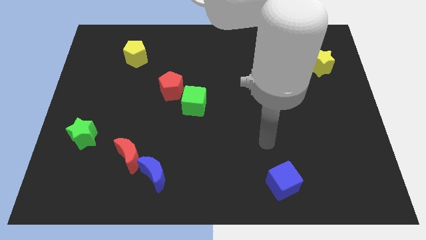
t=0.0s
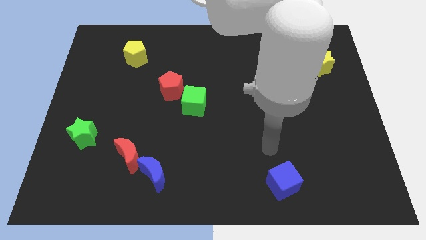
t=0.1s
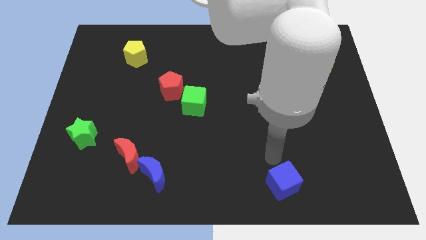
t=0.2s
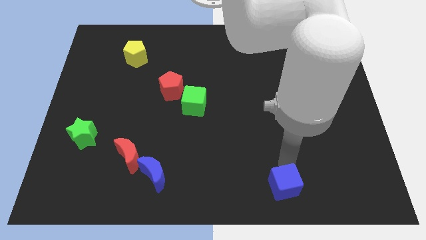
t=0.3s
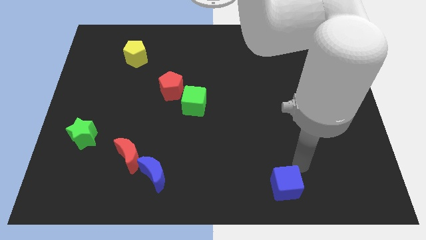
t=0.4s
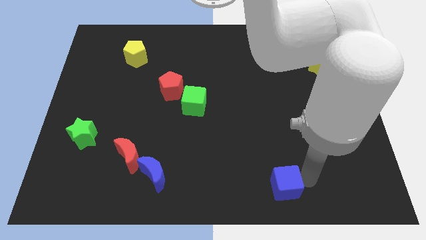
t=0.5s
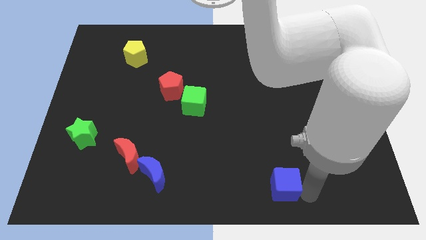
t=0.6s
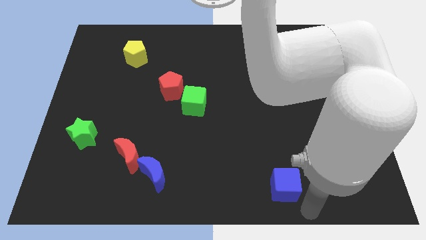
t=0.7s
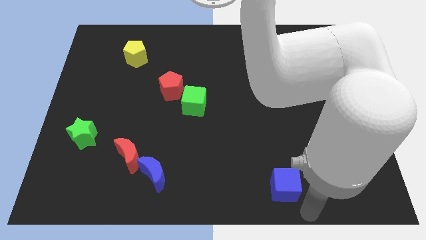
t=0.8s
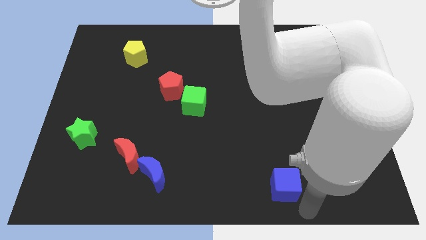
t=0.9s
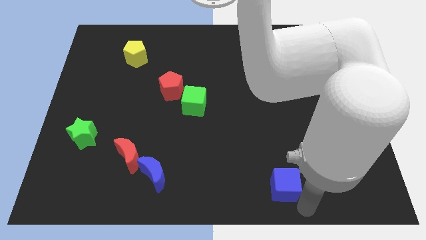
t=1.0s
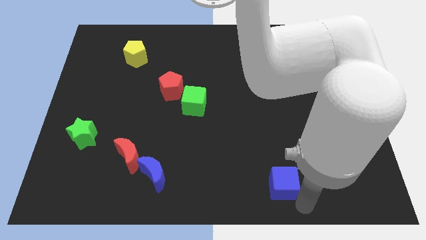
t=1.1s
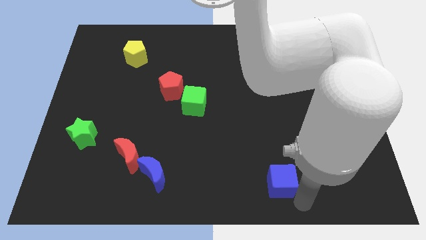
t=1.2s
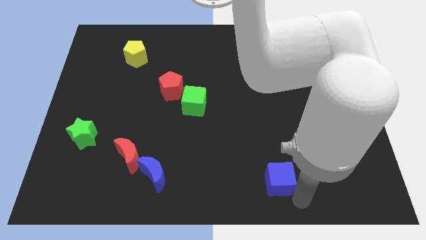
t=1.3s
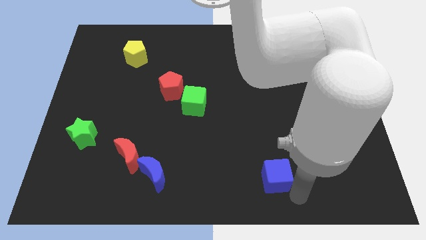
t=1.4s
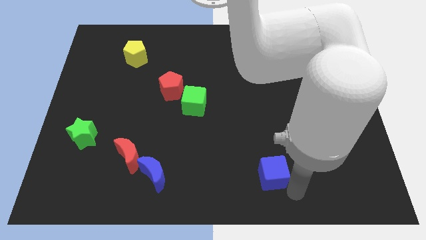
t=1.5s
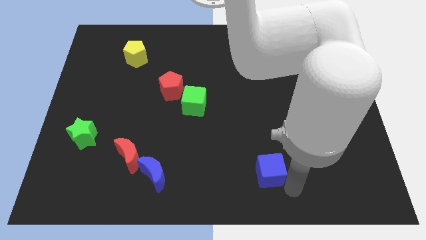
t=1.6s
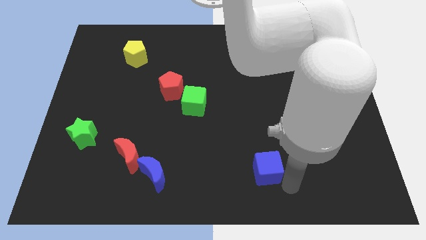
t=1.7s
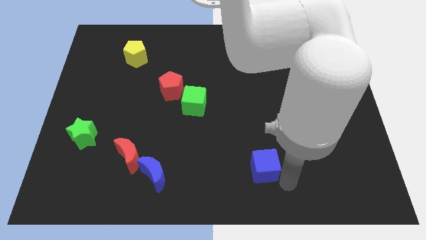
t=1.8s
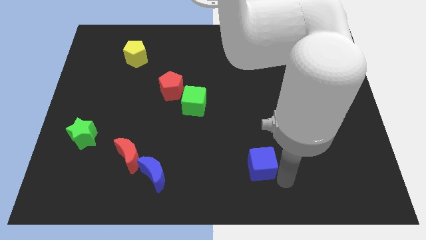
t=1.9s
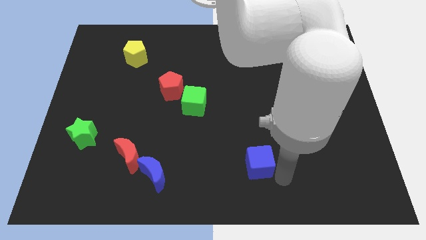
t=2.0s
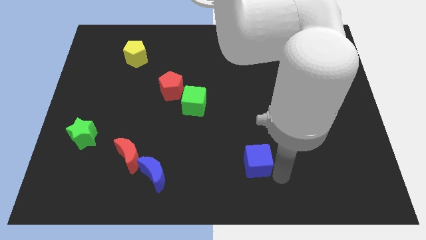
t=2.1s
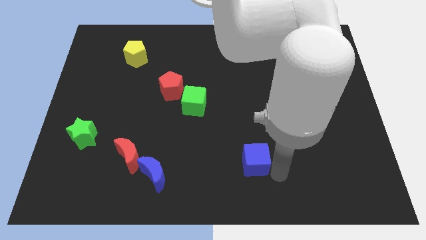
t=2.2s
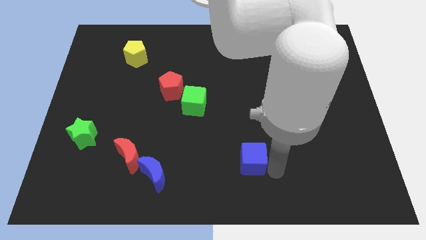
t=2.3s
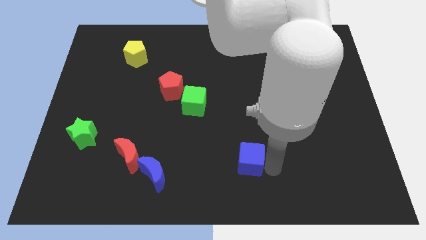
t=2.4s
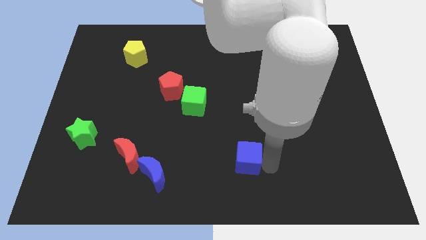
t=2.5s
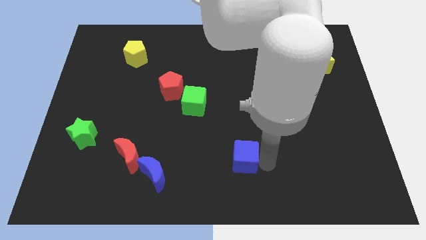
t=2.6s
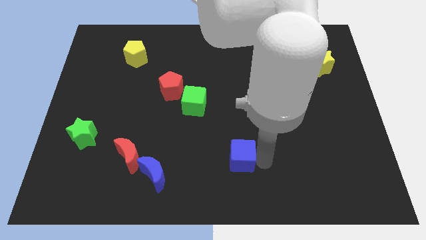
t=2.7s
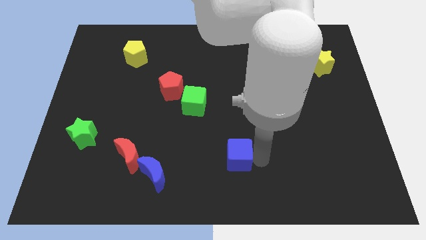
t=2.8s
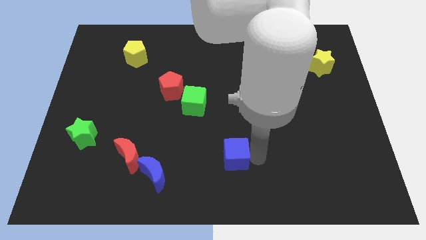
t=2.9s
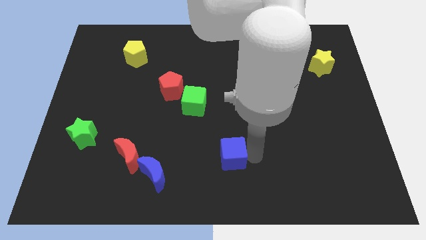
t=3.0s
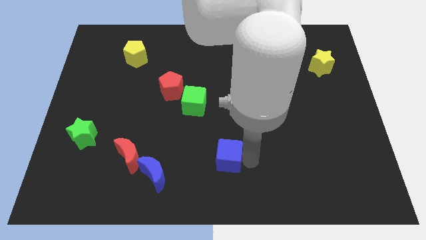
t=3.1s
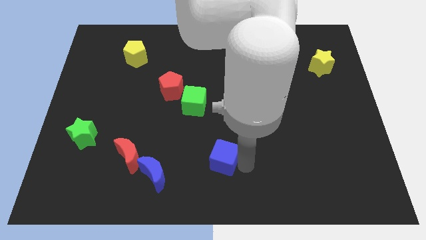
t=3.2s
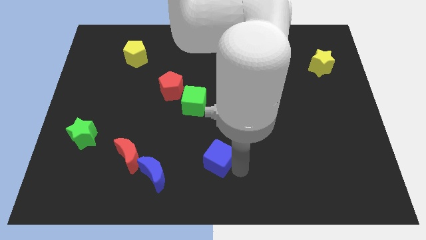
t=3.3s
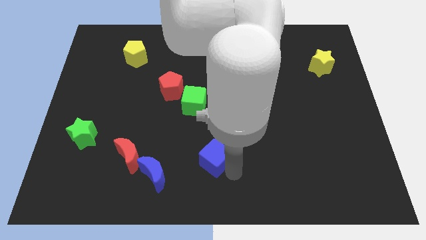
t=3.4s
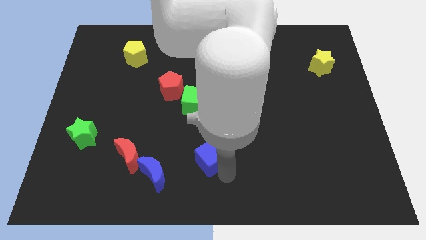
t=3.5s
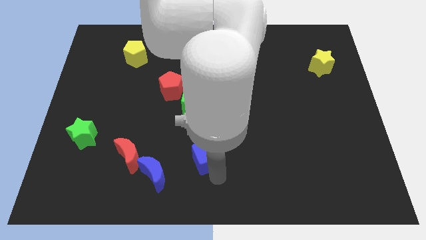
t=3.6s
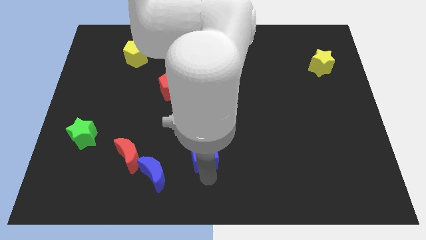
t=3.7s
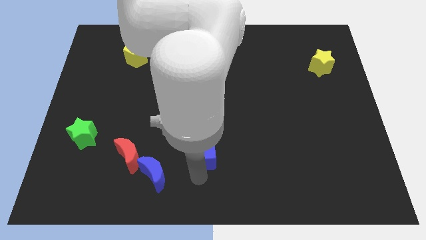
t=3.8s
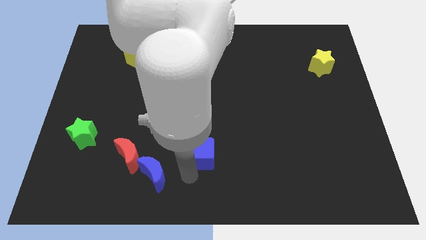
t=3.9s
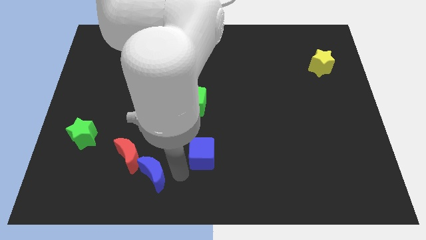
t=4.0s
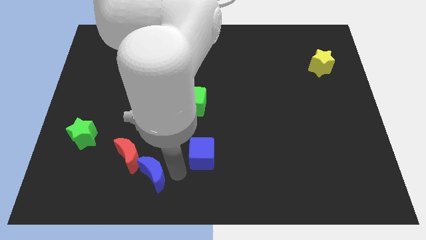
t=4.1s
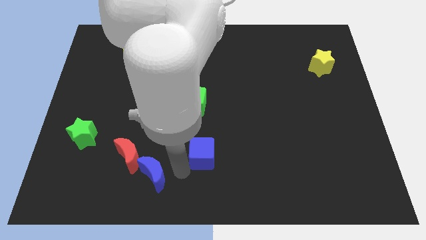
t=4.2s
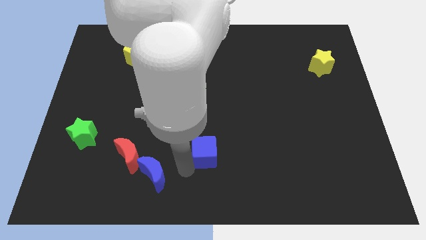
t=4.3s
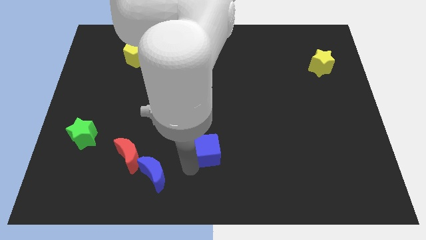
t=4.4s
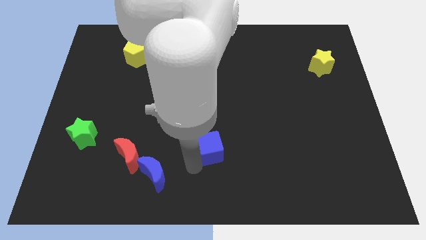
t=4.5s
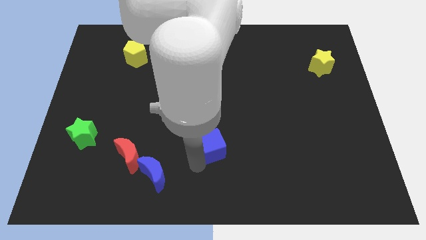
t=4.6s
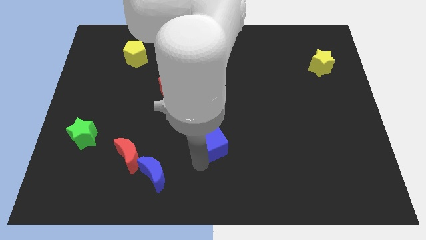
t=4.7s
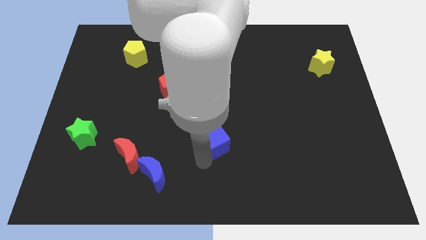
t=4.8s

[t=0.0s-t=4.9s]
move the blue cube to the middle

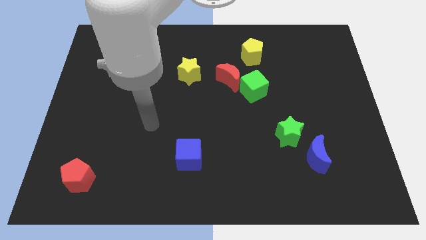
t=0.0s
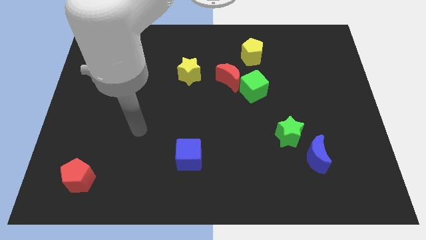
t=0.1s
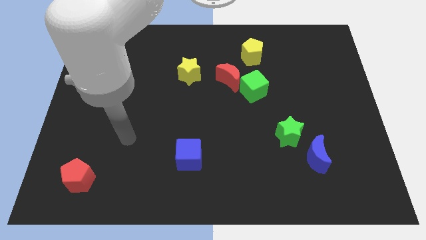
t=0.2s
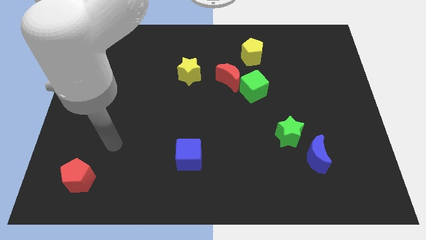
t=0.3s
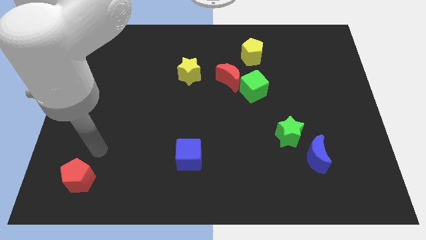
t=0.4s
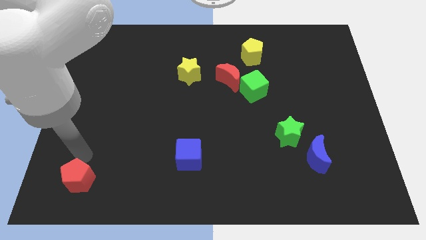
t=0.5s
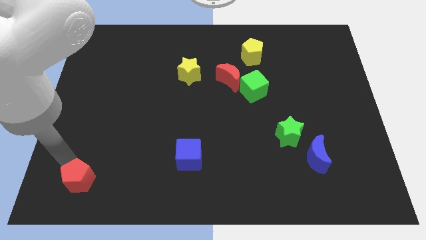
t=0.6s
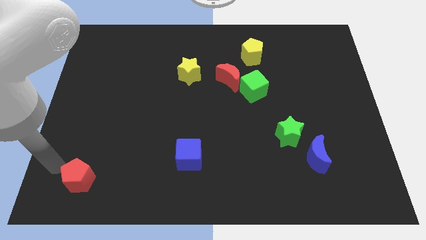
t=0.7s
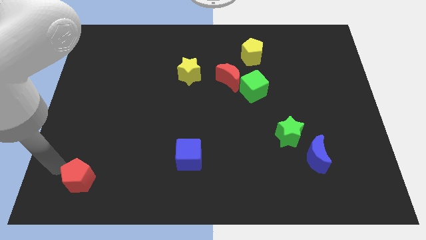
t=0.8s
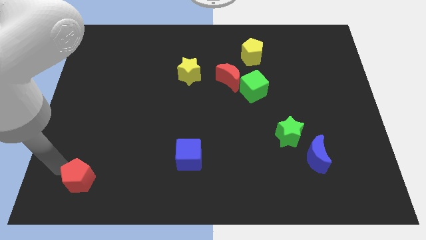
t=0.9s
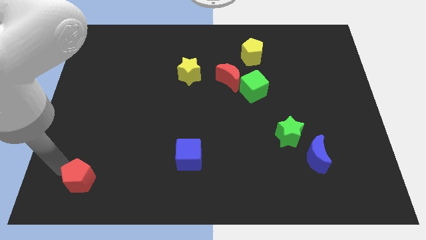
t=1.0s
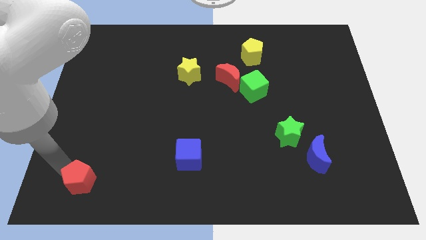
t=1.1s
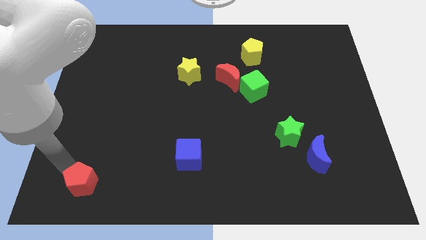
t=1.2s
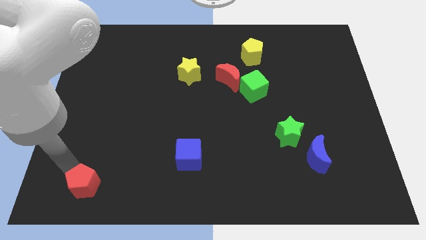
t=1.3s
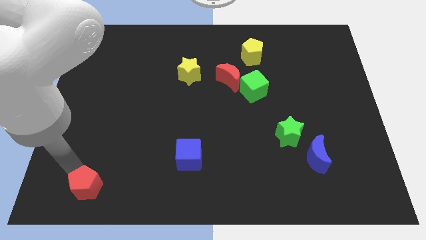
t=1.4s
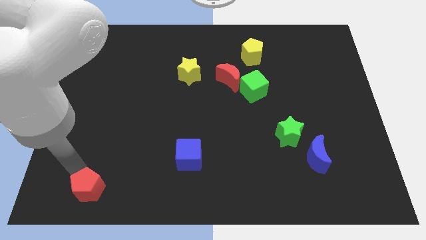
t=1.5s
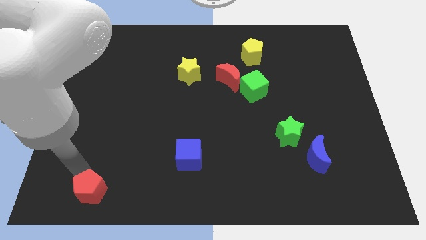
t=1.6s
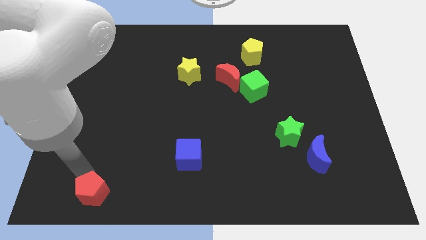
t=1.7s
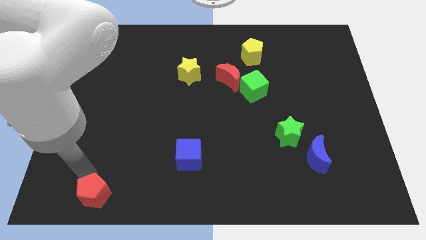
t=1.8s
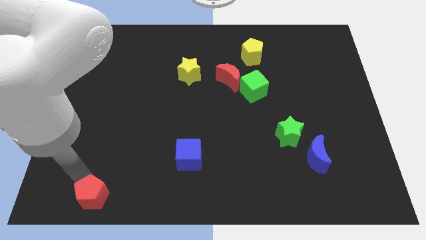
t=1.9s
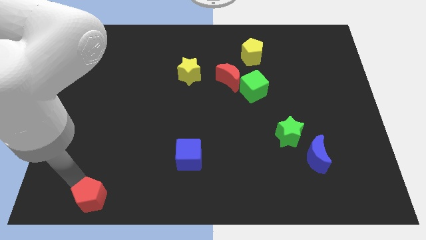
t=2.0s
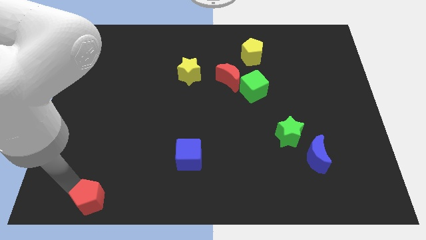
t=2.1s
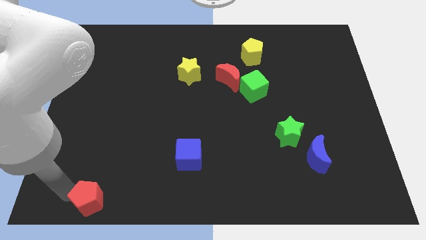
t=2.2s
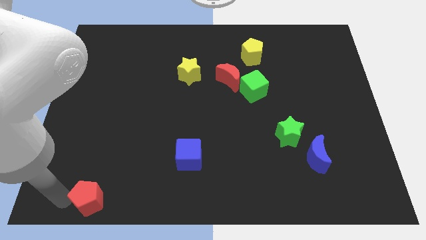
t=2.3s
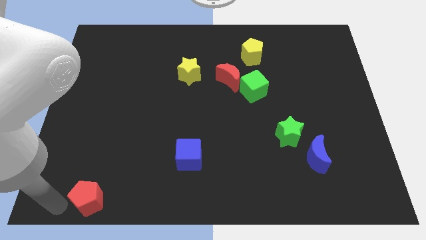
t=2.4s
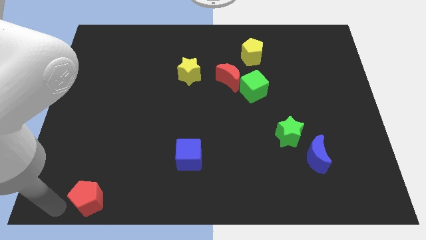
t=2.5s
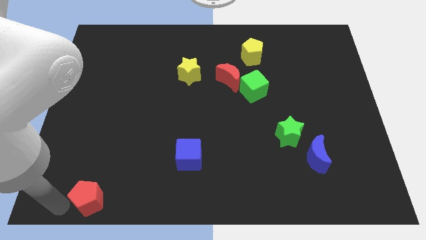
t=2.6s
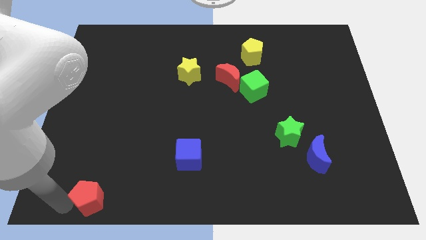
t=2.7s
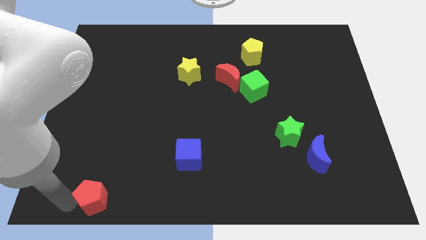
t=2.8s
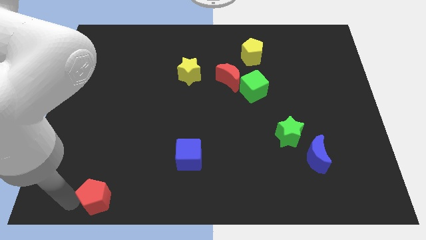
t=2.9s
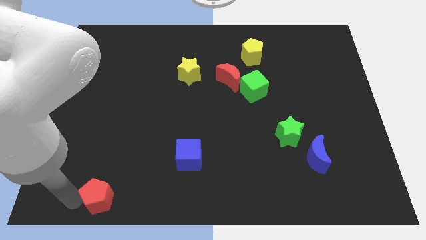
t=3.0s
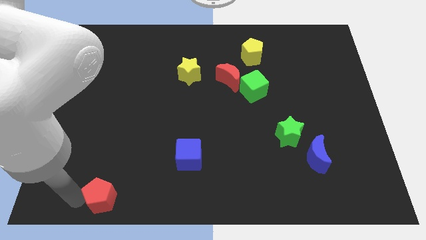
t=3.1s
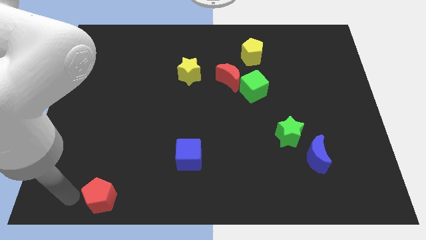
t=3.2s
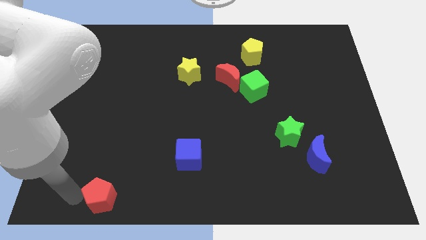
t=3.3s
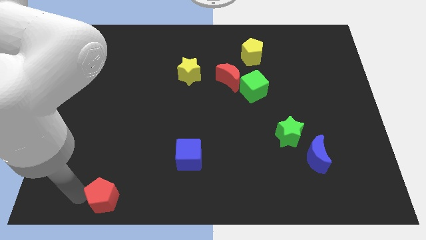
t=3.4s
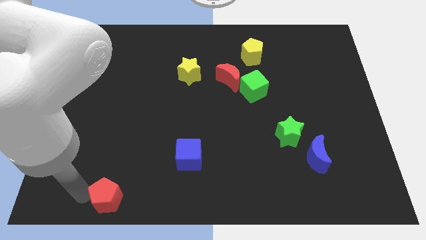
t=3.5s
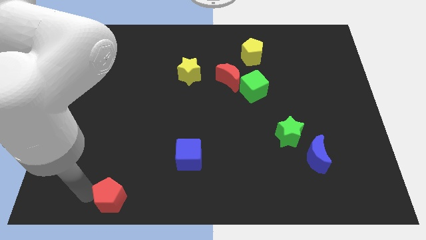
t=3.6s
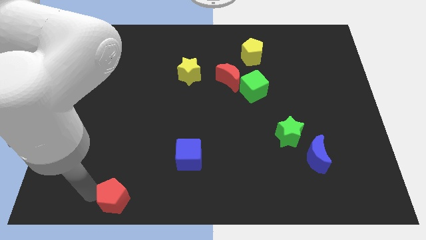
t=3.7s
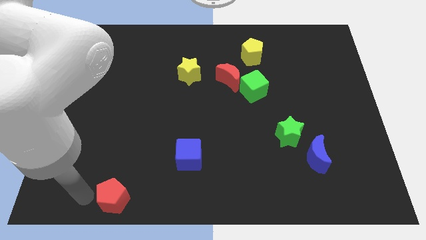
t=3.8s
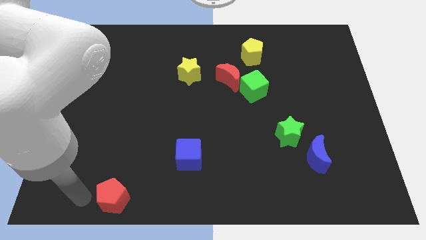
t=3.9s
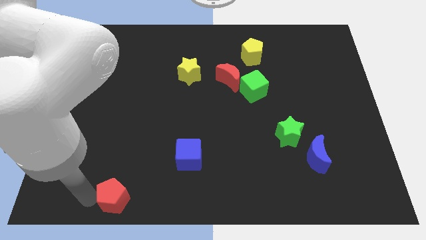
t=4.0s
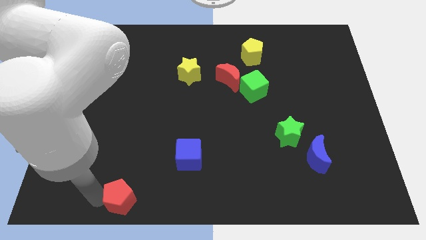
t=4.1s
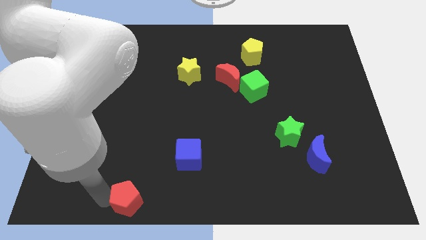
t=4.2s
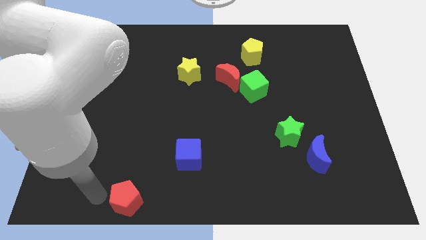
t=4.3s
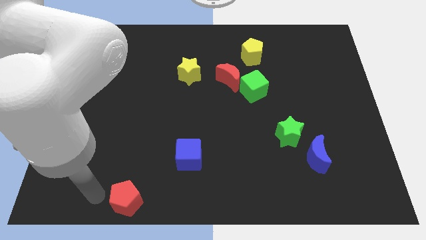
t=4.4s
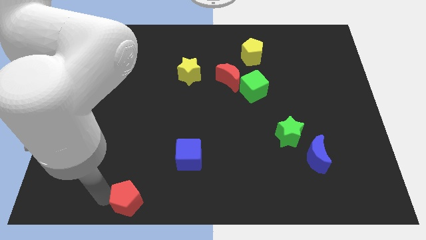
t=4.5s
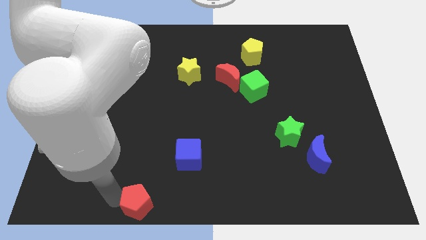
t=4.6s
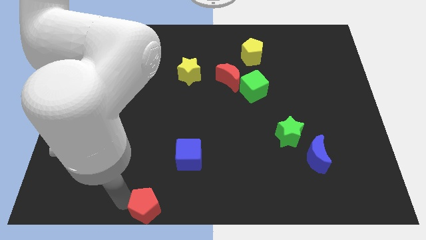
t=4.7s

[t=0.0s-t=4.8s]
move the red pentagon to the bottom
